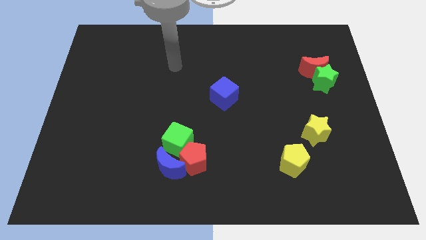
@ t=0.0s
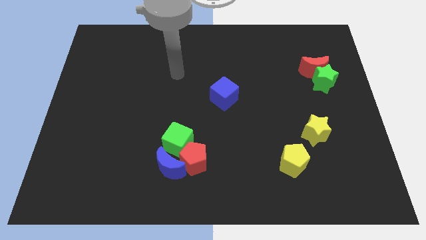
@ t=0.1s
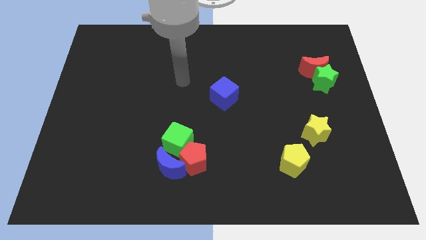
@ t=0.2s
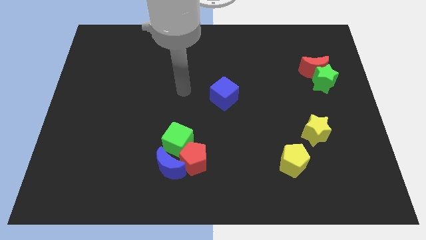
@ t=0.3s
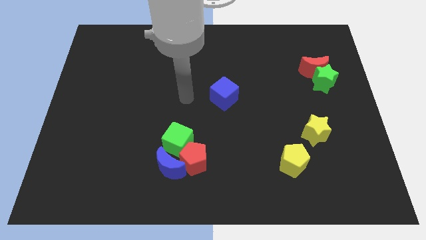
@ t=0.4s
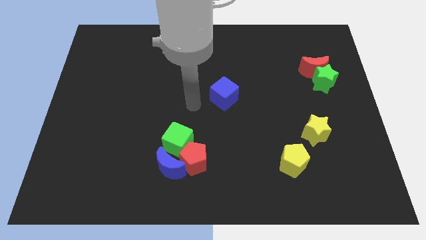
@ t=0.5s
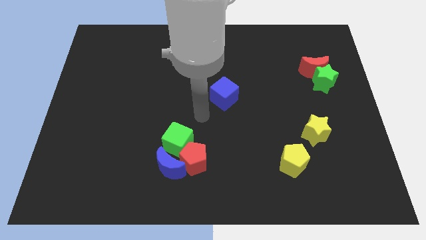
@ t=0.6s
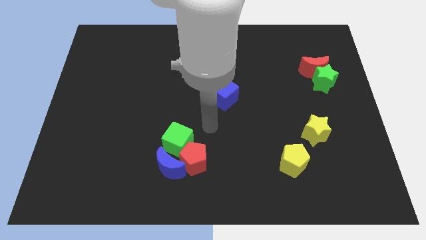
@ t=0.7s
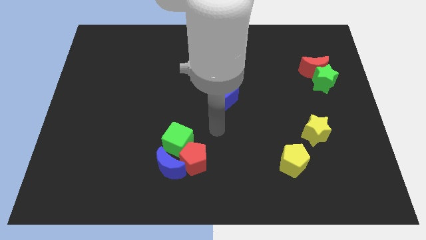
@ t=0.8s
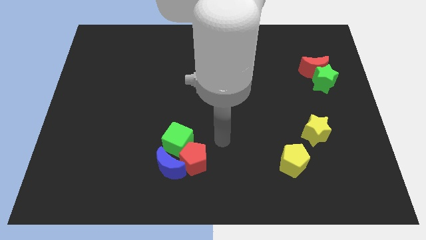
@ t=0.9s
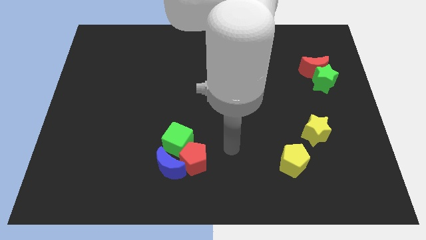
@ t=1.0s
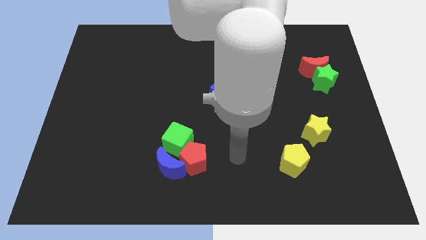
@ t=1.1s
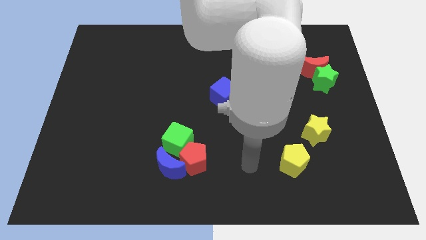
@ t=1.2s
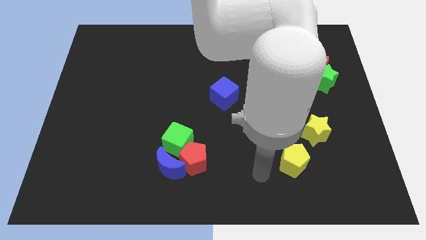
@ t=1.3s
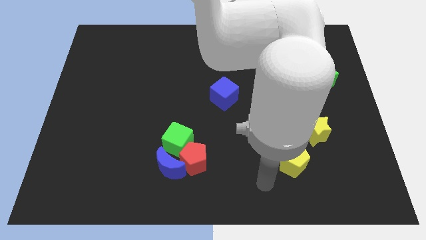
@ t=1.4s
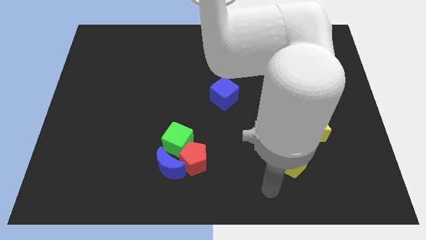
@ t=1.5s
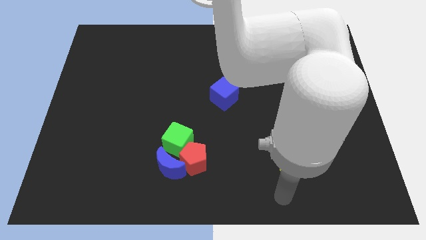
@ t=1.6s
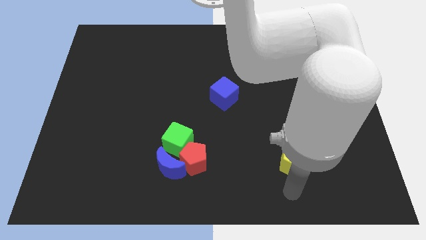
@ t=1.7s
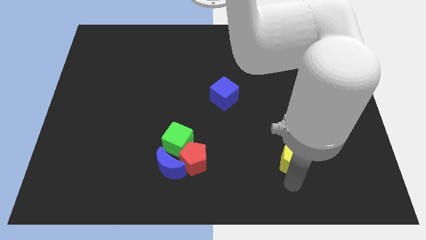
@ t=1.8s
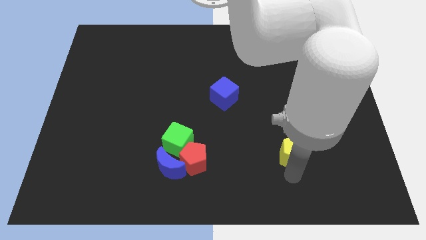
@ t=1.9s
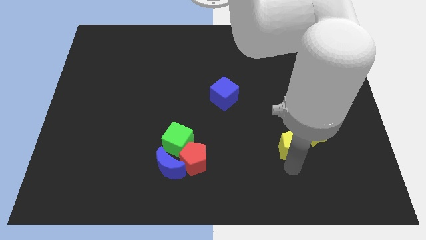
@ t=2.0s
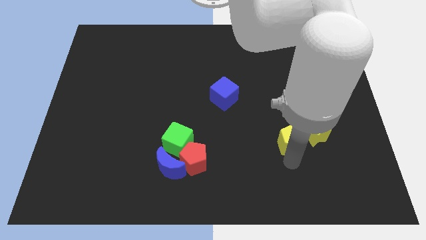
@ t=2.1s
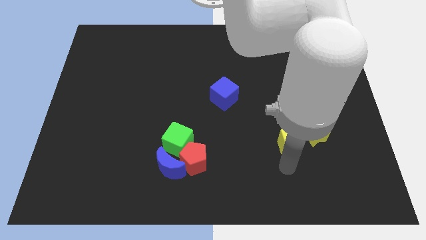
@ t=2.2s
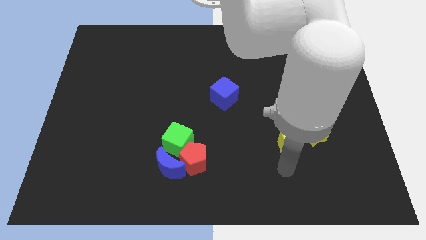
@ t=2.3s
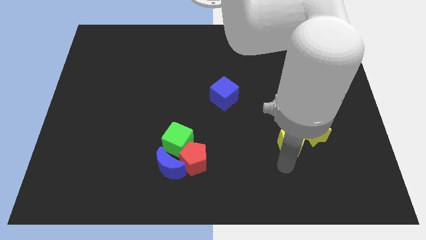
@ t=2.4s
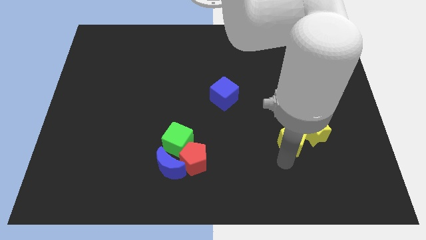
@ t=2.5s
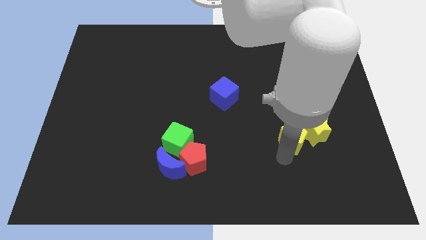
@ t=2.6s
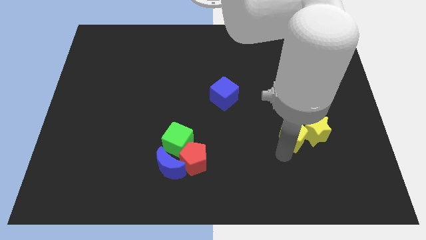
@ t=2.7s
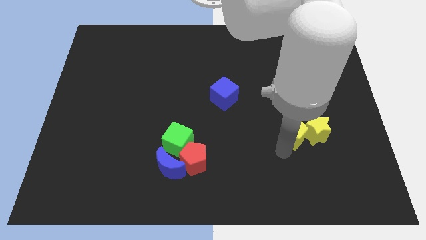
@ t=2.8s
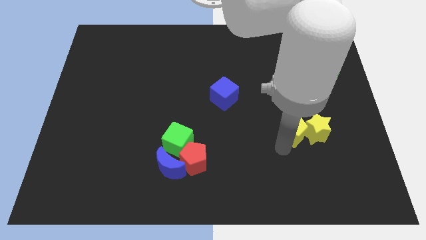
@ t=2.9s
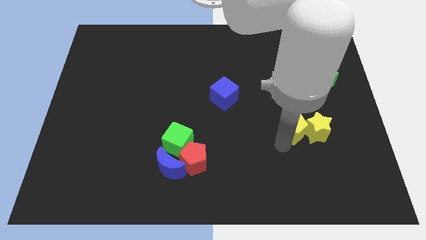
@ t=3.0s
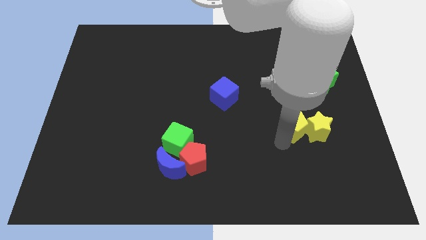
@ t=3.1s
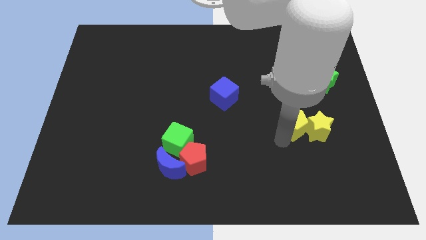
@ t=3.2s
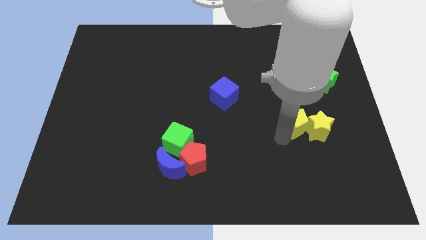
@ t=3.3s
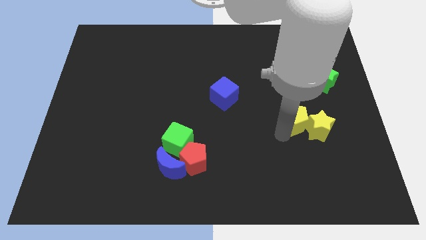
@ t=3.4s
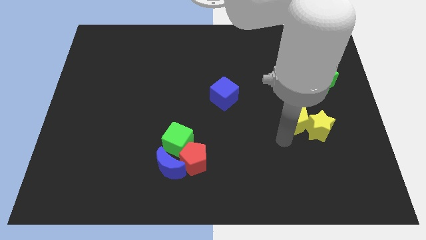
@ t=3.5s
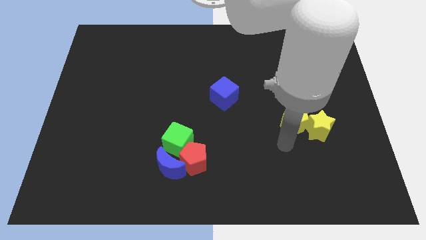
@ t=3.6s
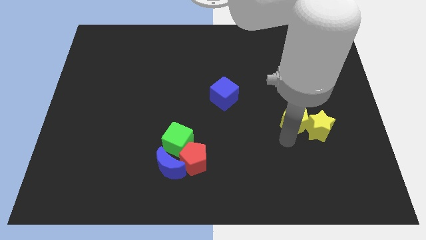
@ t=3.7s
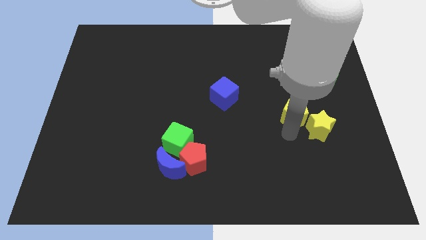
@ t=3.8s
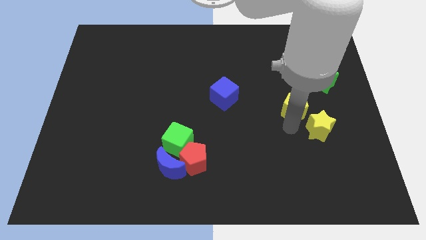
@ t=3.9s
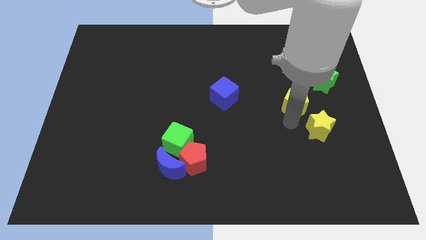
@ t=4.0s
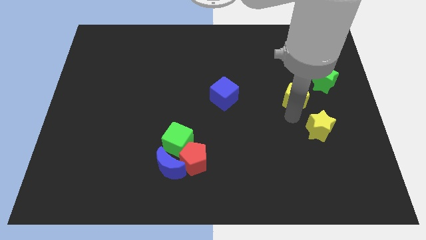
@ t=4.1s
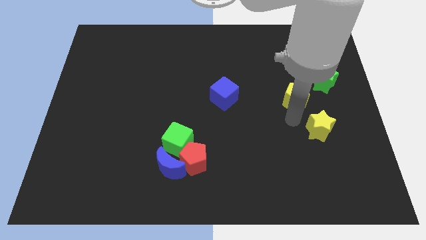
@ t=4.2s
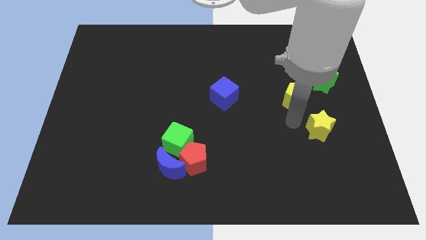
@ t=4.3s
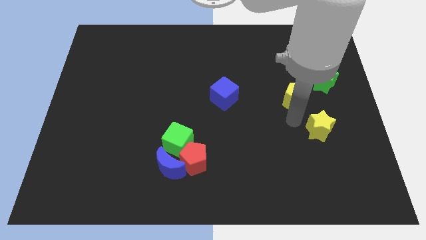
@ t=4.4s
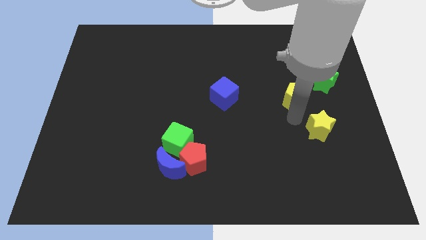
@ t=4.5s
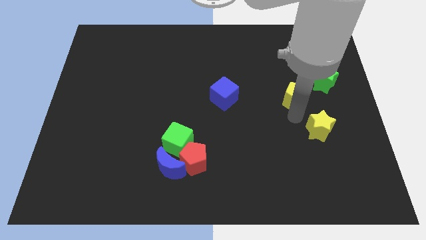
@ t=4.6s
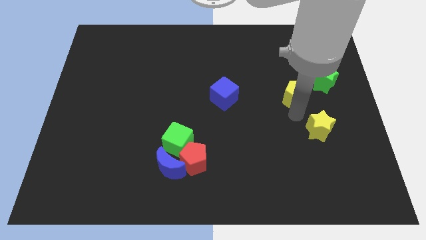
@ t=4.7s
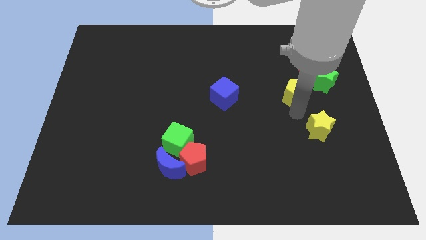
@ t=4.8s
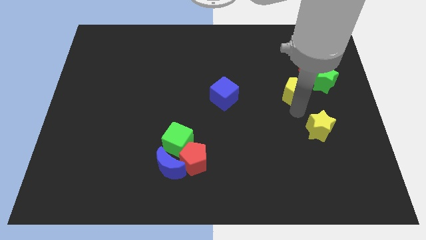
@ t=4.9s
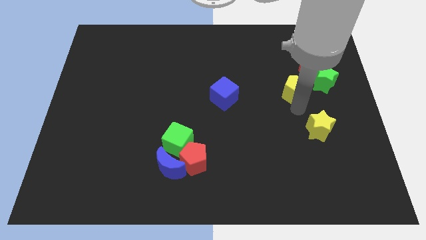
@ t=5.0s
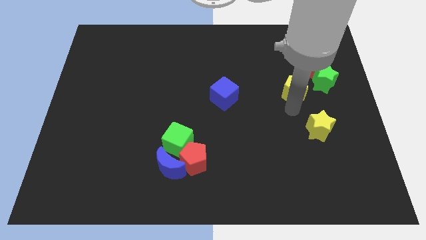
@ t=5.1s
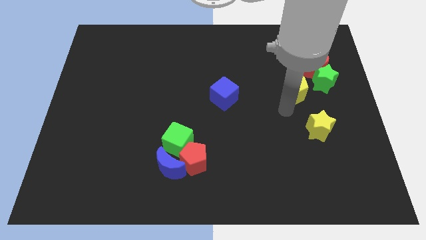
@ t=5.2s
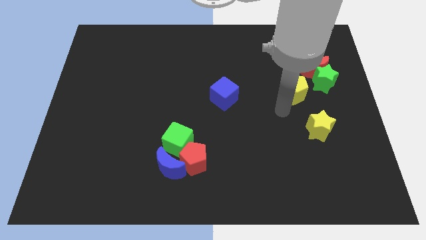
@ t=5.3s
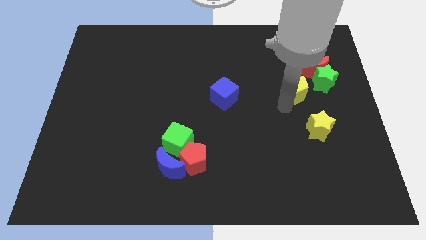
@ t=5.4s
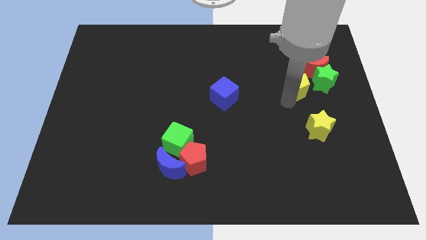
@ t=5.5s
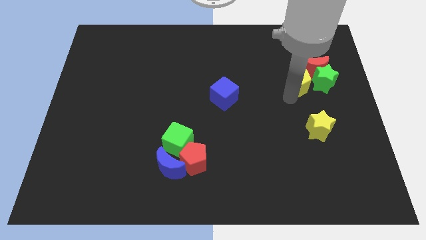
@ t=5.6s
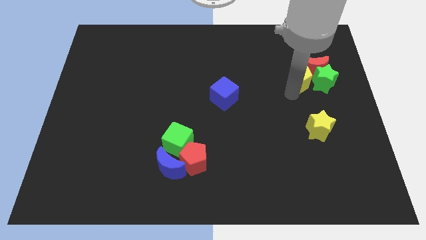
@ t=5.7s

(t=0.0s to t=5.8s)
move the yellow pentagon towards the red moon

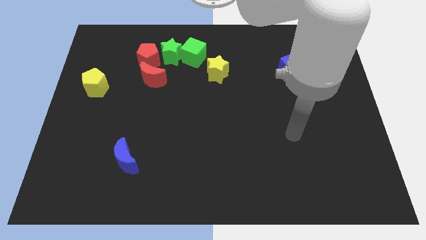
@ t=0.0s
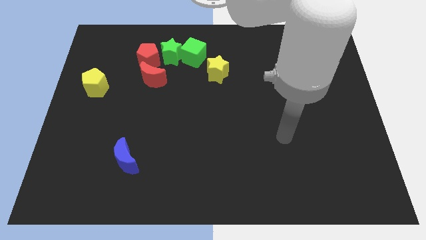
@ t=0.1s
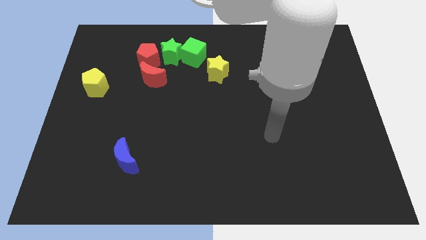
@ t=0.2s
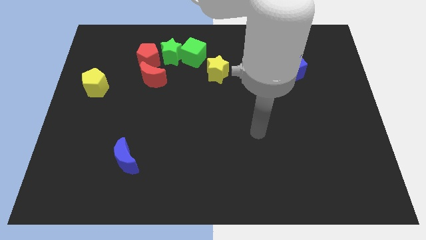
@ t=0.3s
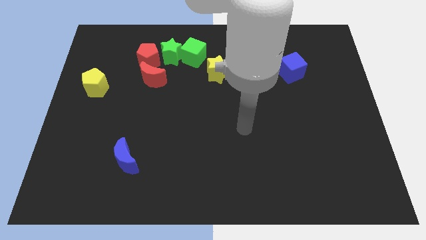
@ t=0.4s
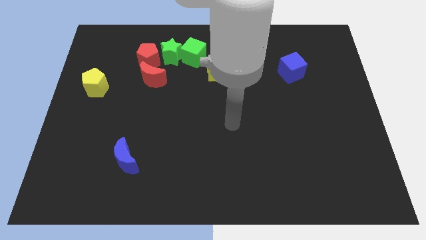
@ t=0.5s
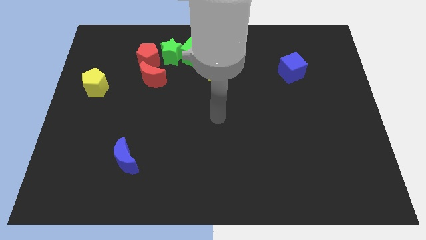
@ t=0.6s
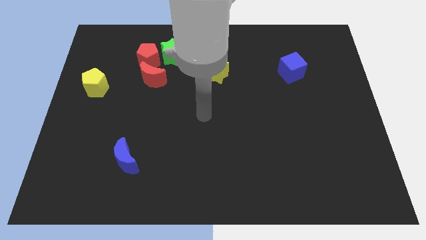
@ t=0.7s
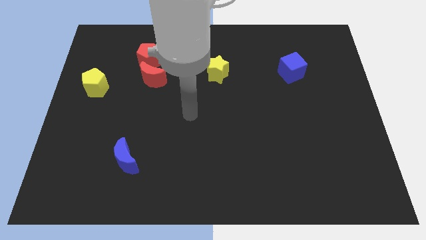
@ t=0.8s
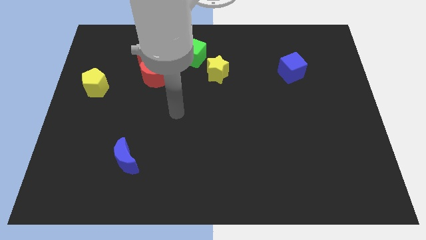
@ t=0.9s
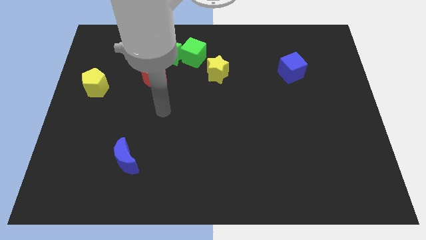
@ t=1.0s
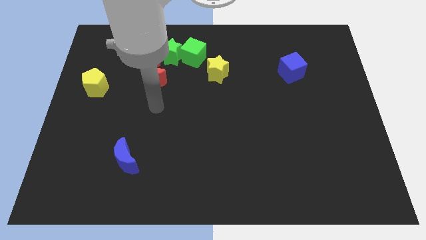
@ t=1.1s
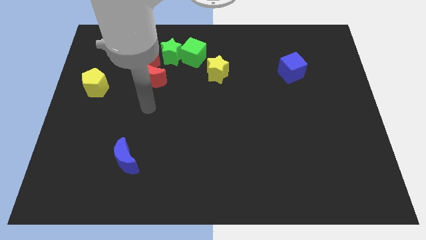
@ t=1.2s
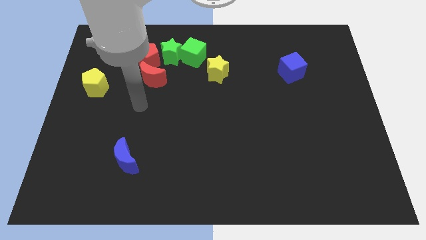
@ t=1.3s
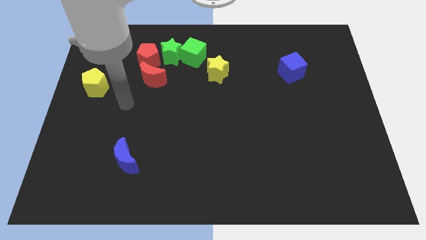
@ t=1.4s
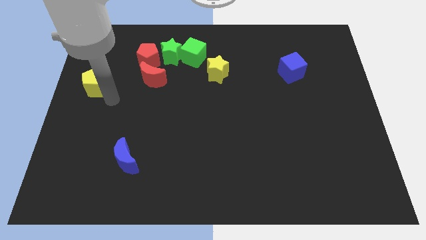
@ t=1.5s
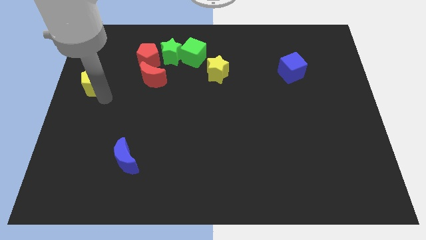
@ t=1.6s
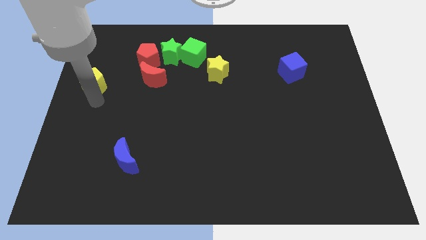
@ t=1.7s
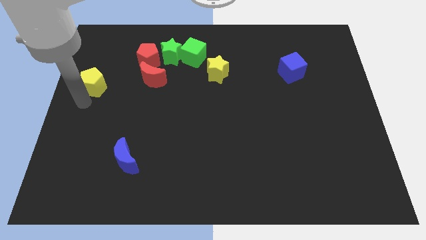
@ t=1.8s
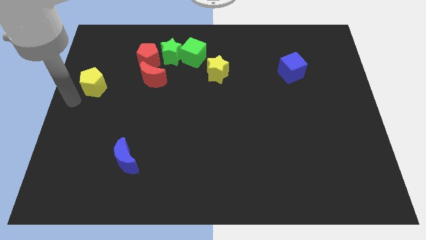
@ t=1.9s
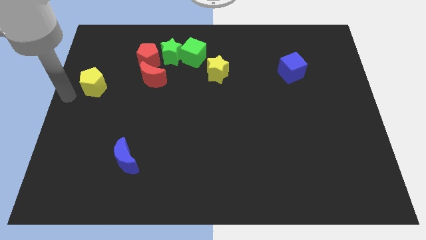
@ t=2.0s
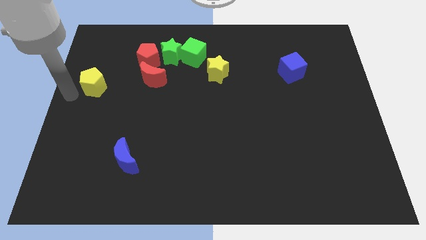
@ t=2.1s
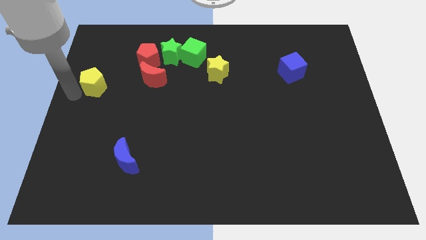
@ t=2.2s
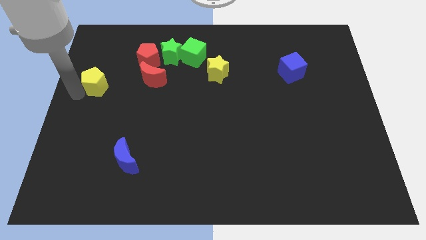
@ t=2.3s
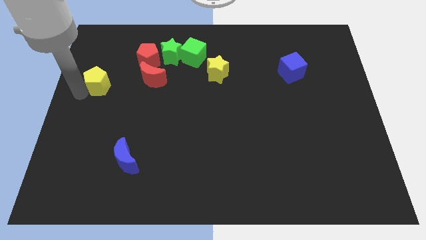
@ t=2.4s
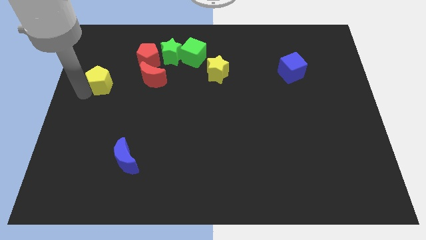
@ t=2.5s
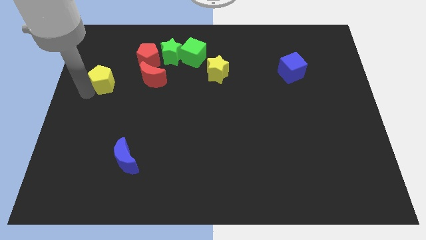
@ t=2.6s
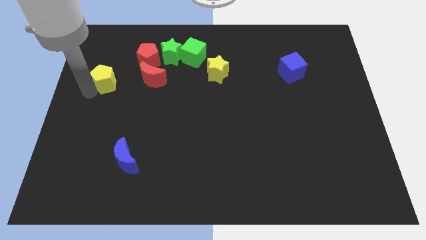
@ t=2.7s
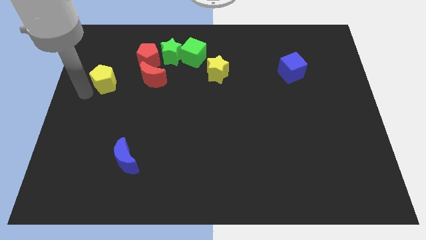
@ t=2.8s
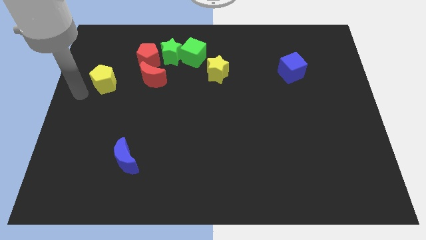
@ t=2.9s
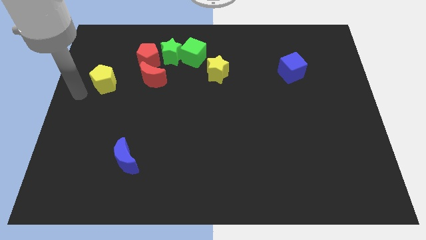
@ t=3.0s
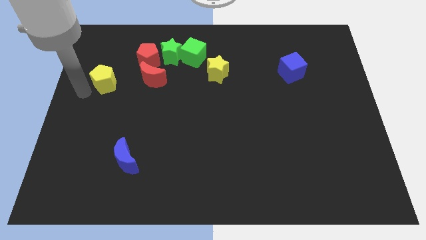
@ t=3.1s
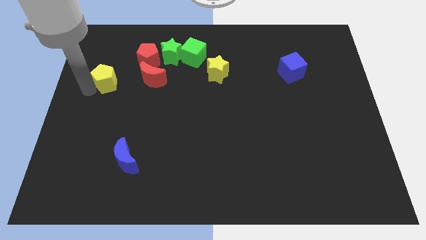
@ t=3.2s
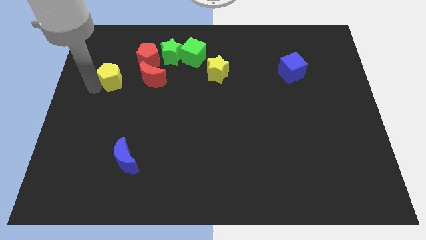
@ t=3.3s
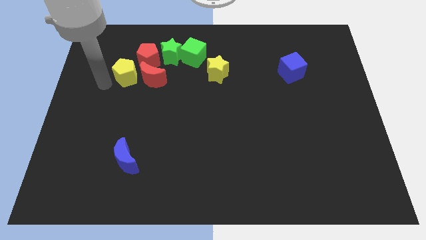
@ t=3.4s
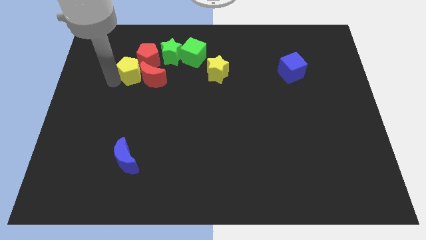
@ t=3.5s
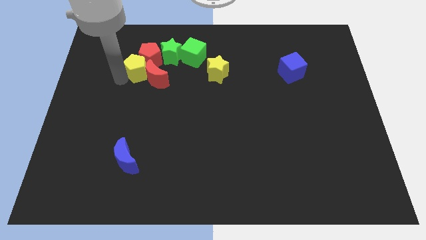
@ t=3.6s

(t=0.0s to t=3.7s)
move the yellow pentagon towards the red pentagon
